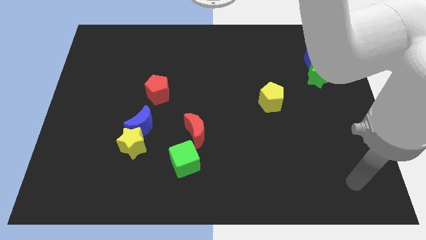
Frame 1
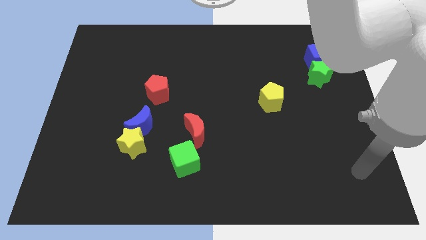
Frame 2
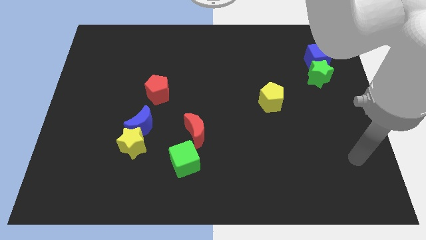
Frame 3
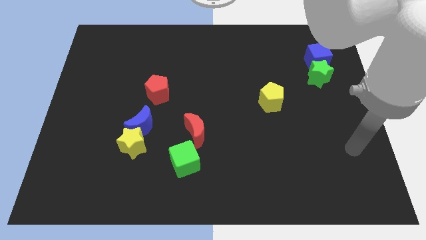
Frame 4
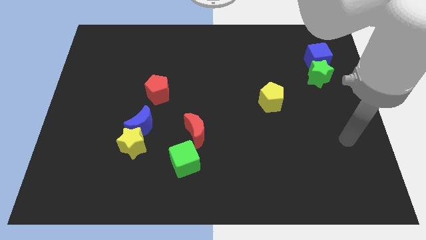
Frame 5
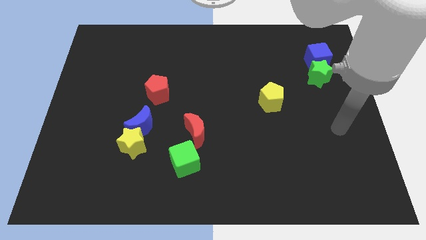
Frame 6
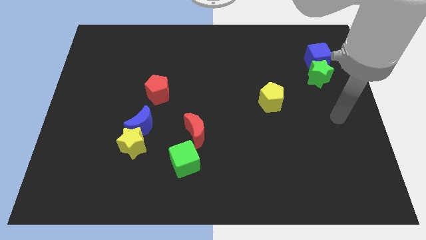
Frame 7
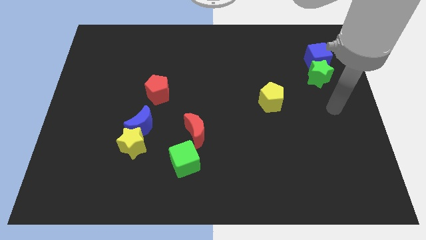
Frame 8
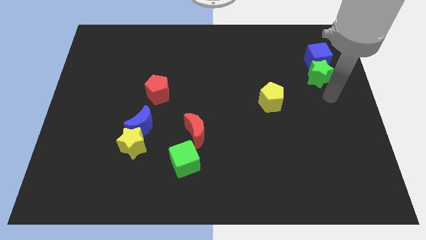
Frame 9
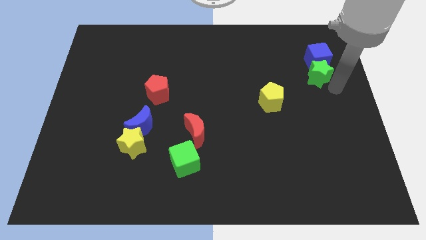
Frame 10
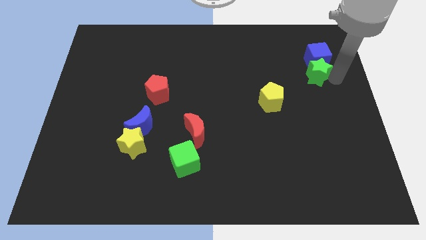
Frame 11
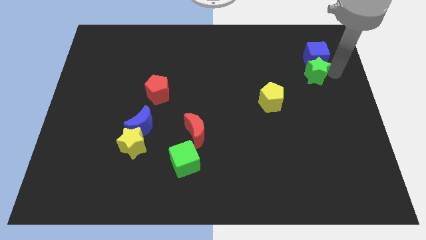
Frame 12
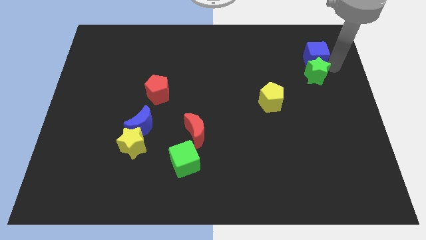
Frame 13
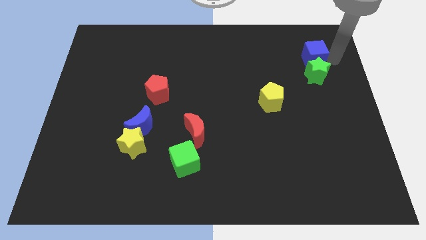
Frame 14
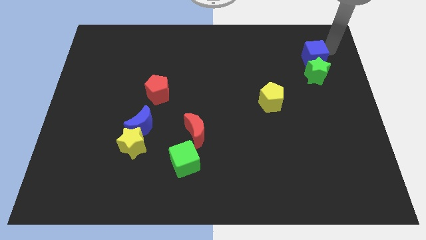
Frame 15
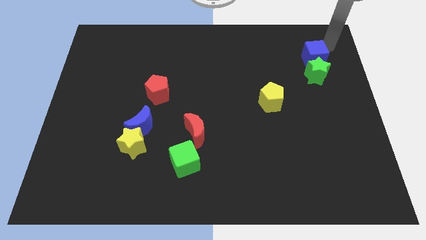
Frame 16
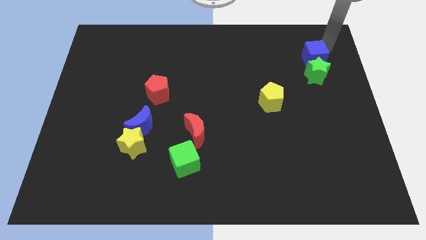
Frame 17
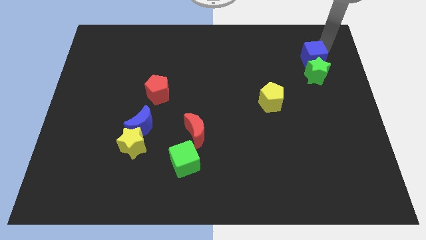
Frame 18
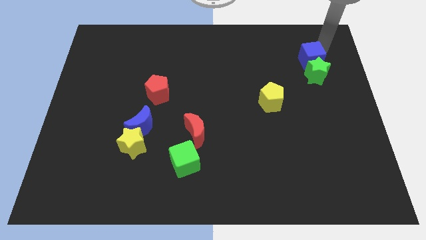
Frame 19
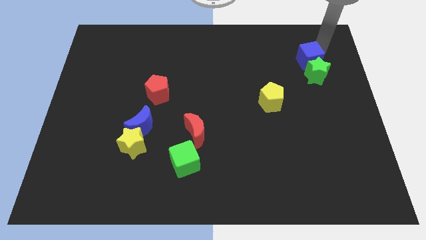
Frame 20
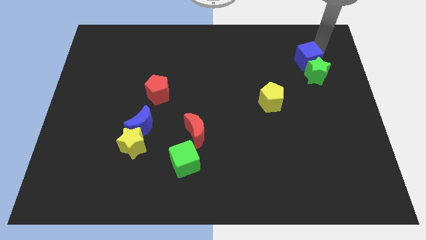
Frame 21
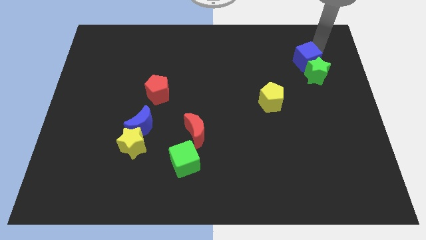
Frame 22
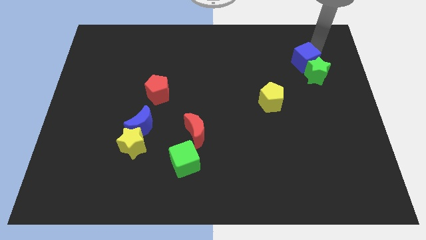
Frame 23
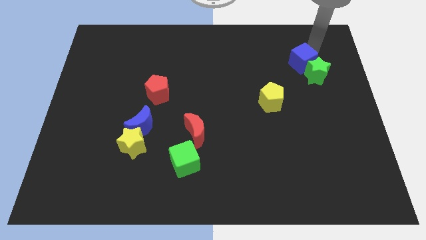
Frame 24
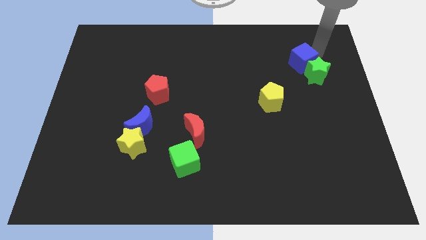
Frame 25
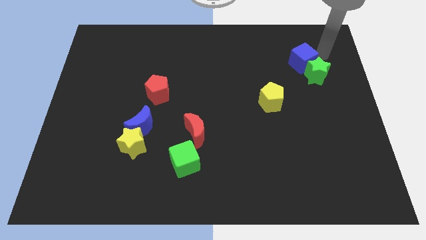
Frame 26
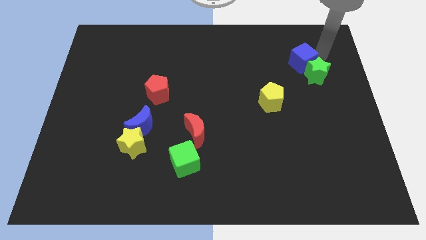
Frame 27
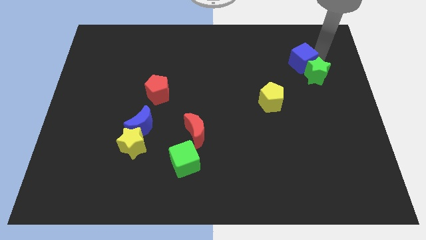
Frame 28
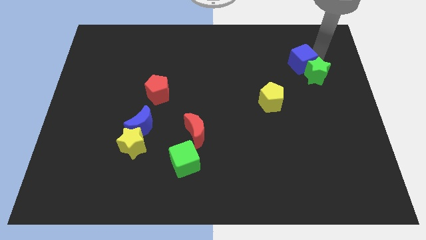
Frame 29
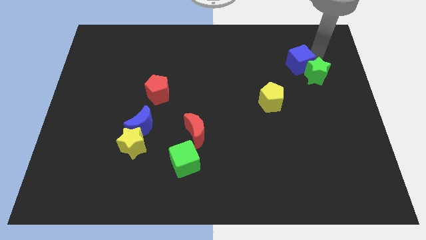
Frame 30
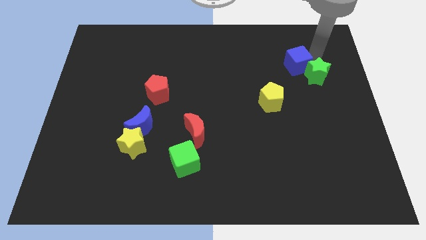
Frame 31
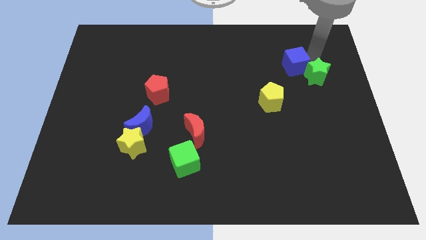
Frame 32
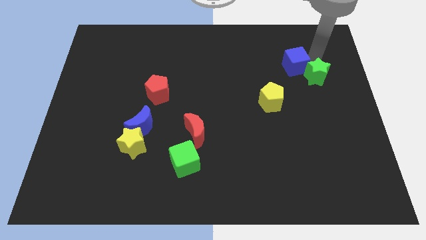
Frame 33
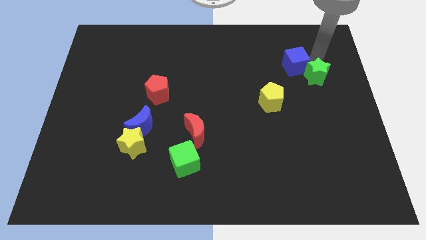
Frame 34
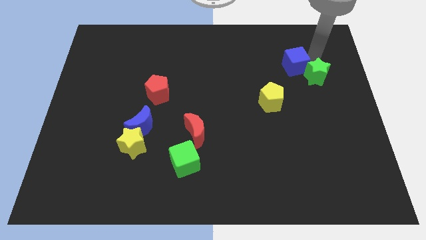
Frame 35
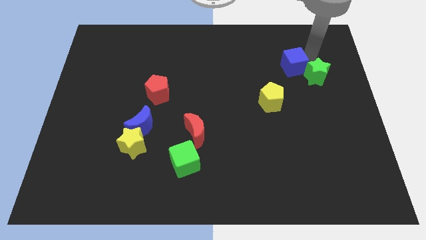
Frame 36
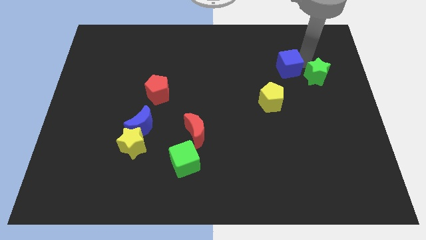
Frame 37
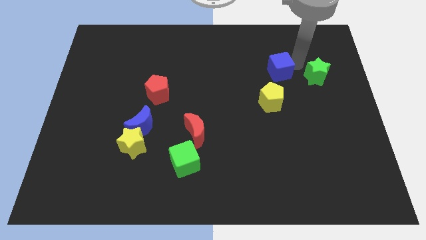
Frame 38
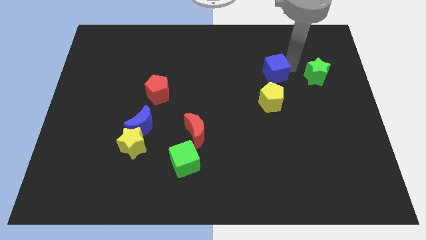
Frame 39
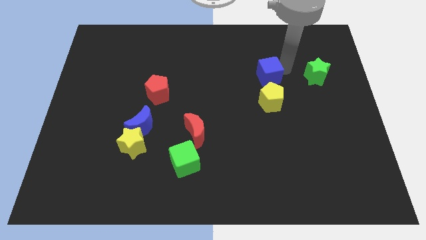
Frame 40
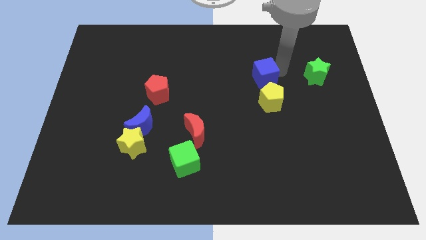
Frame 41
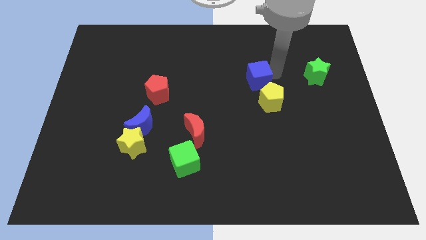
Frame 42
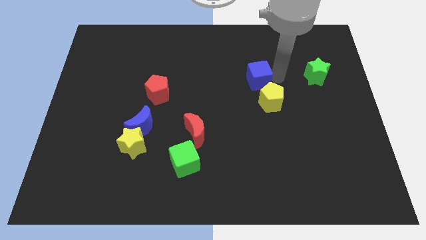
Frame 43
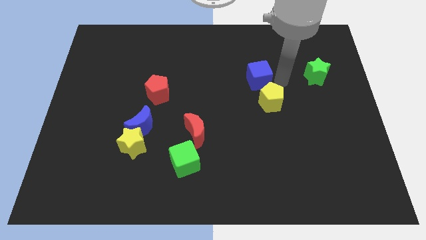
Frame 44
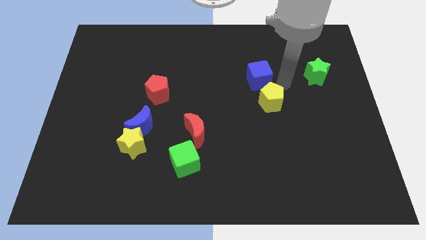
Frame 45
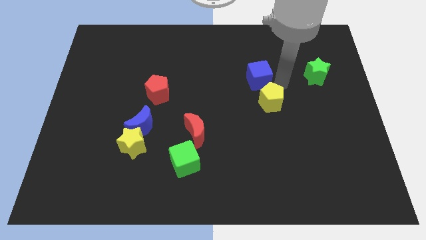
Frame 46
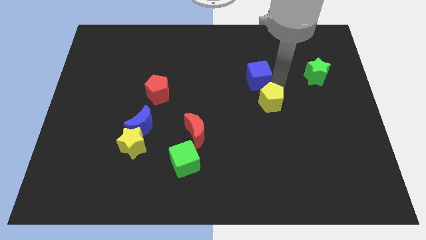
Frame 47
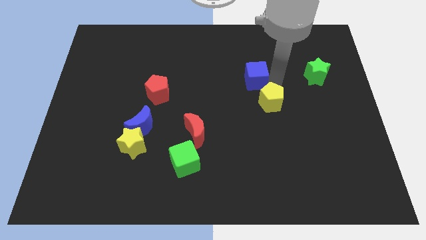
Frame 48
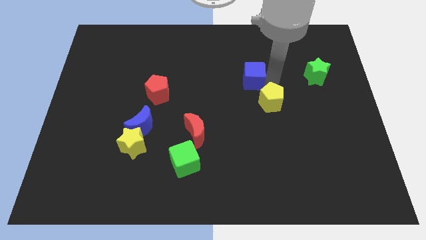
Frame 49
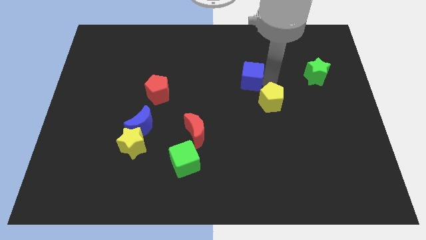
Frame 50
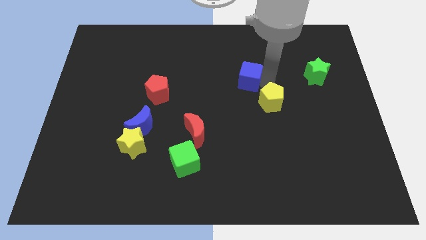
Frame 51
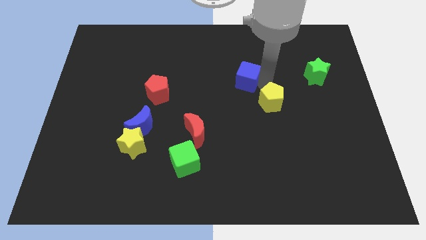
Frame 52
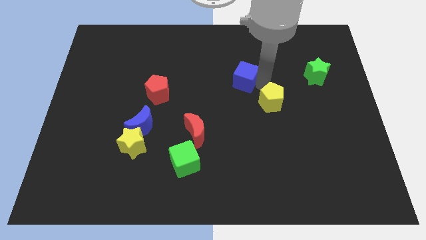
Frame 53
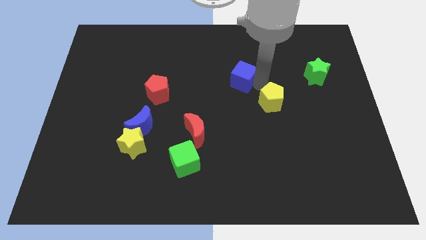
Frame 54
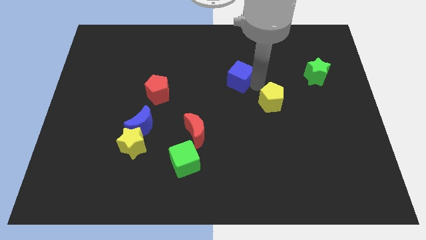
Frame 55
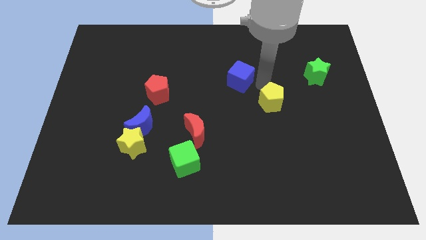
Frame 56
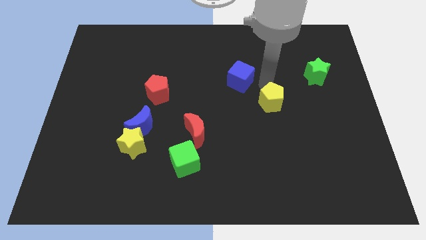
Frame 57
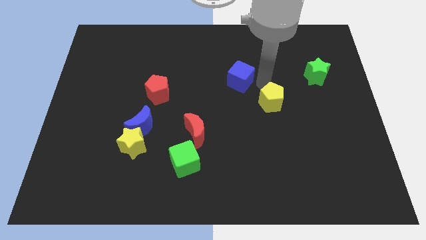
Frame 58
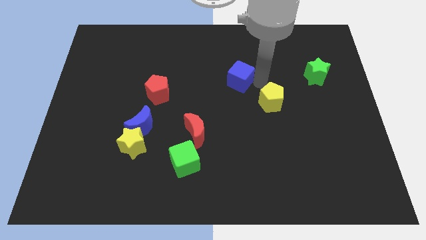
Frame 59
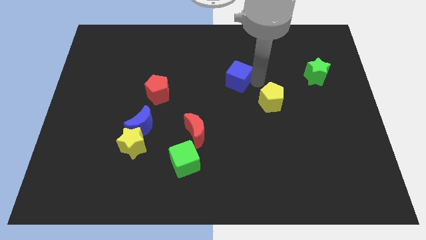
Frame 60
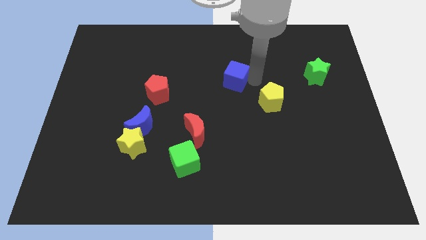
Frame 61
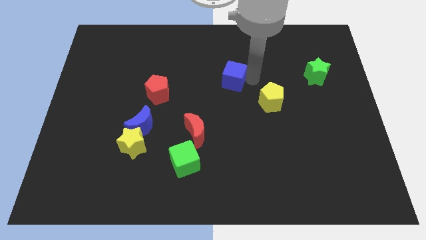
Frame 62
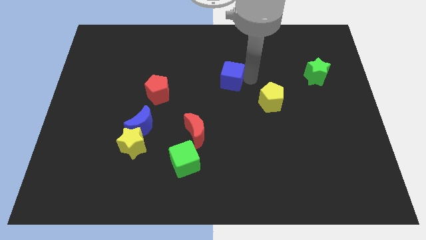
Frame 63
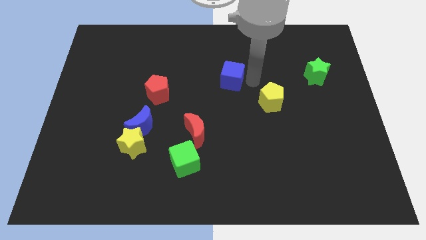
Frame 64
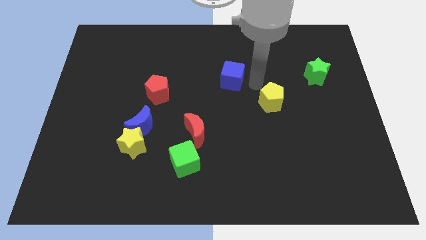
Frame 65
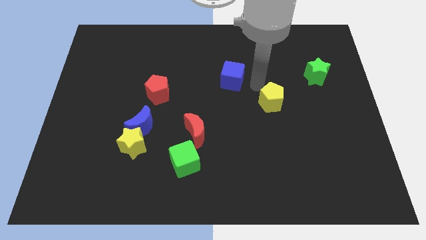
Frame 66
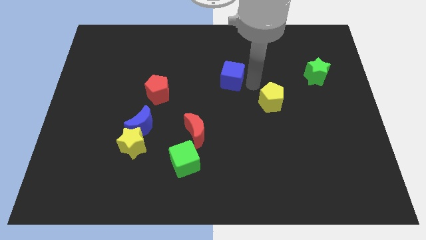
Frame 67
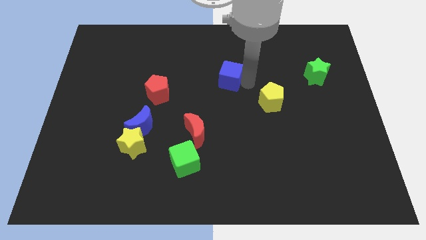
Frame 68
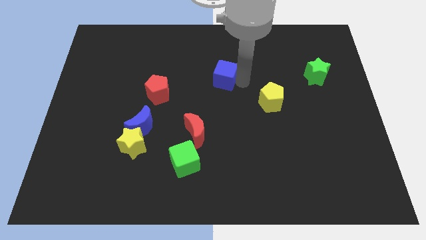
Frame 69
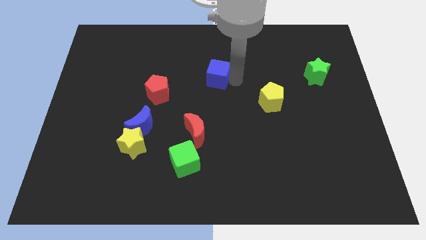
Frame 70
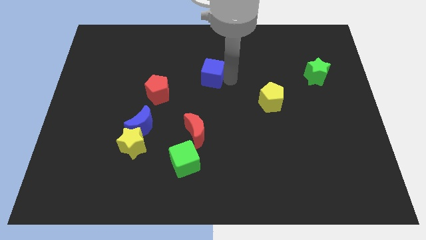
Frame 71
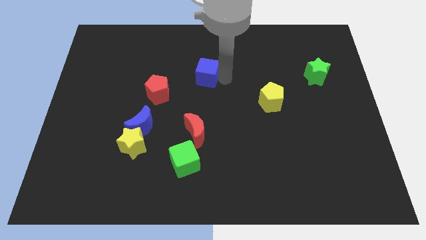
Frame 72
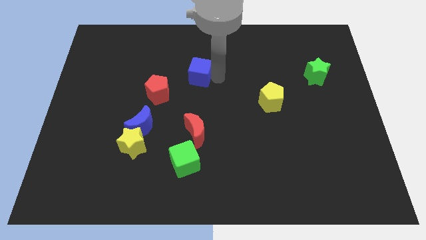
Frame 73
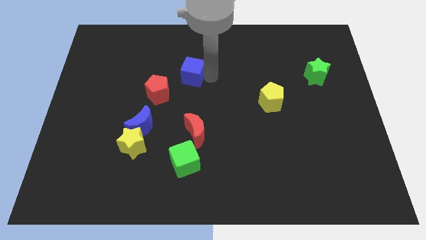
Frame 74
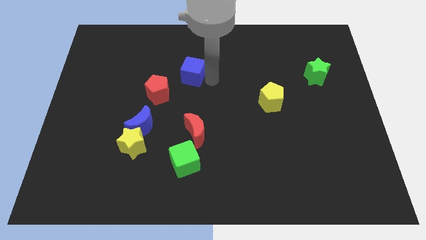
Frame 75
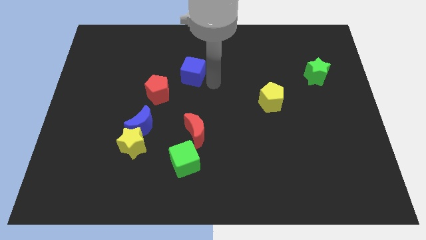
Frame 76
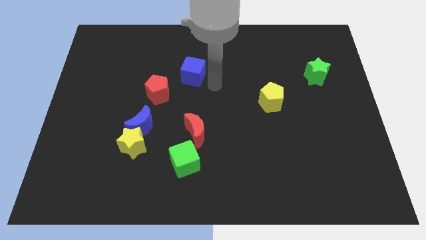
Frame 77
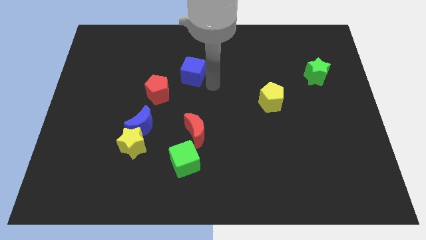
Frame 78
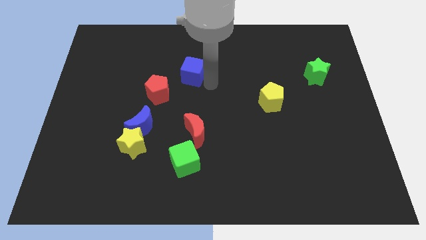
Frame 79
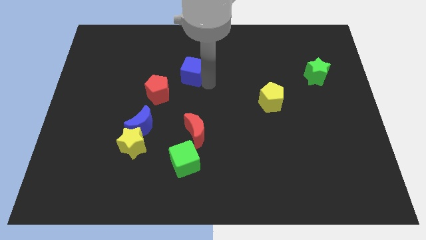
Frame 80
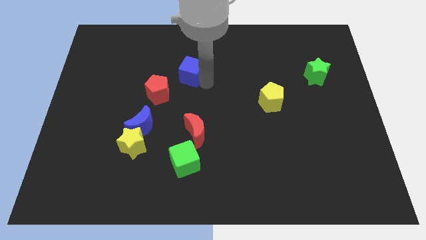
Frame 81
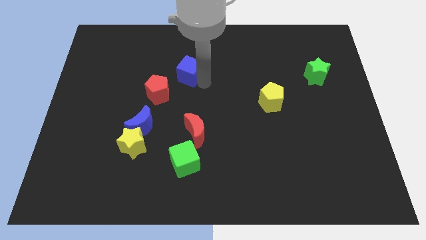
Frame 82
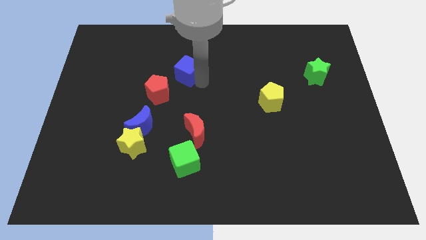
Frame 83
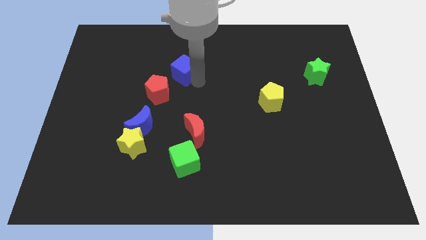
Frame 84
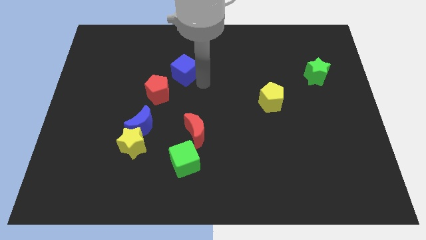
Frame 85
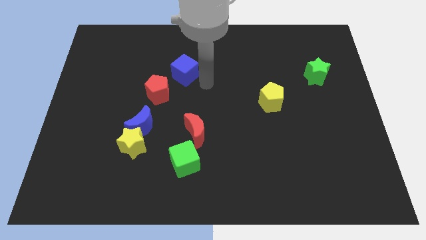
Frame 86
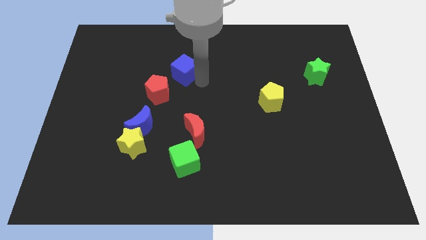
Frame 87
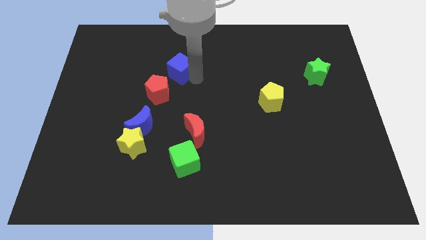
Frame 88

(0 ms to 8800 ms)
put the blue cube to the top of the red pentagon
